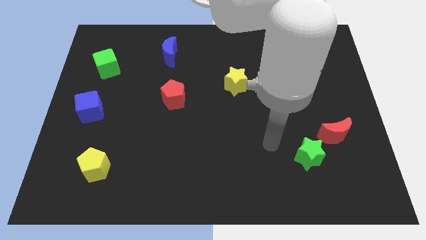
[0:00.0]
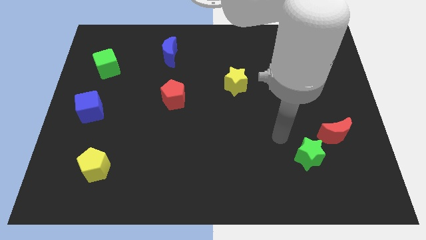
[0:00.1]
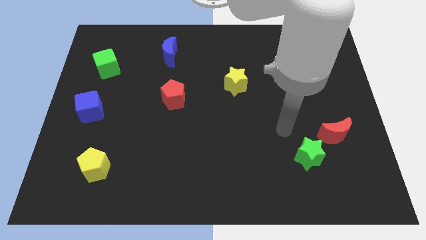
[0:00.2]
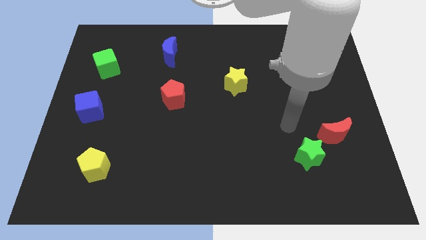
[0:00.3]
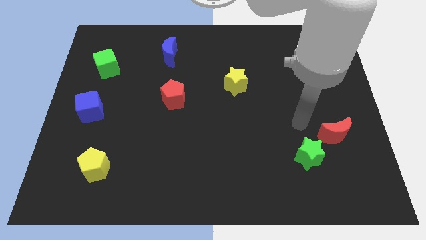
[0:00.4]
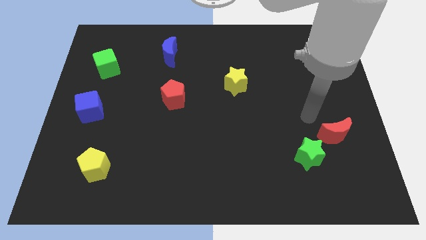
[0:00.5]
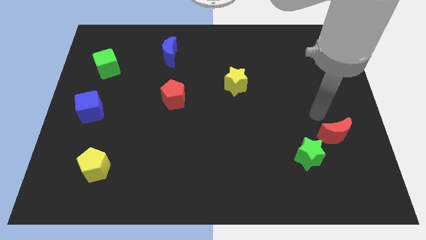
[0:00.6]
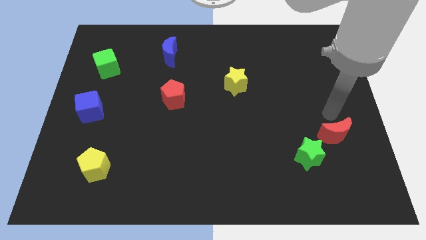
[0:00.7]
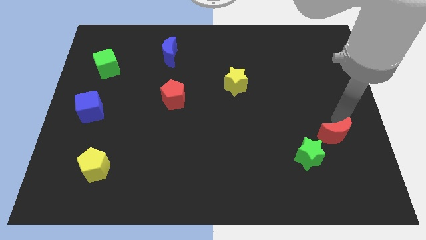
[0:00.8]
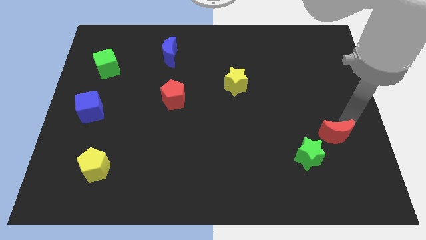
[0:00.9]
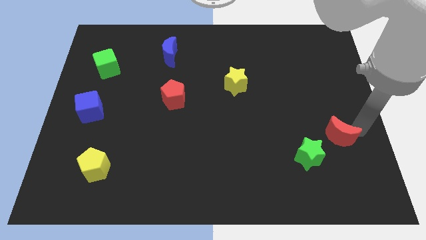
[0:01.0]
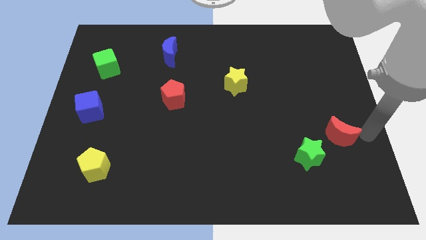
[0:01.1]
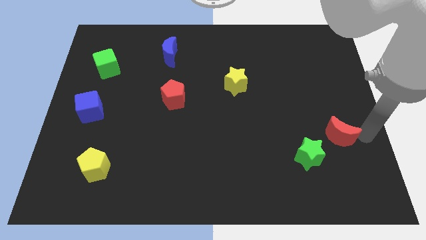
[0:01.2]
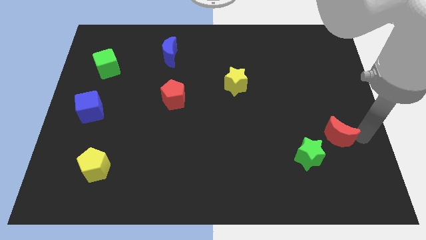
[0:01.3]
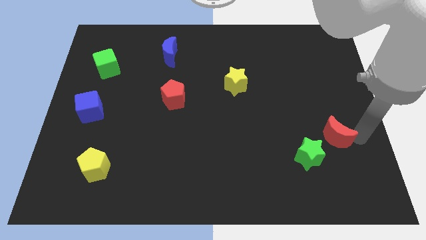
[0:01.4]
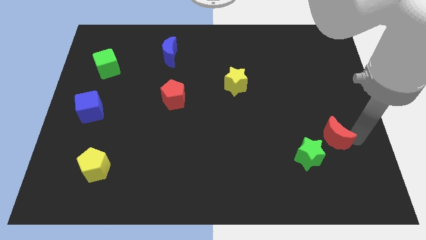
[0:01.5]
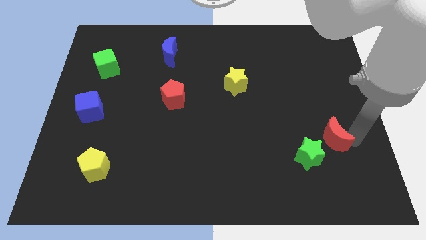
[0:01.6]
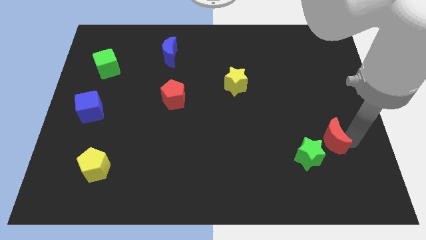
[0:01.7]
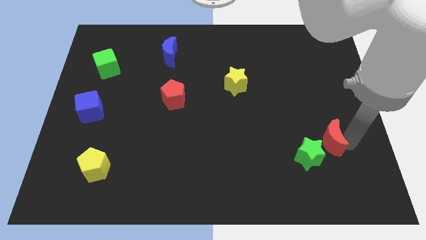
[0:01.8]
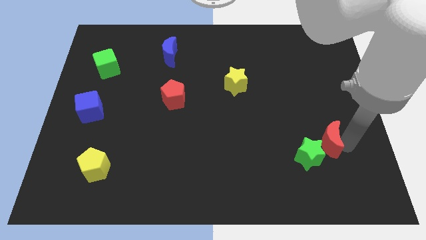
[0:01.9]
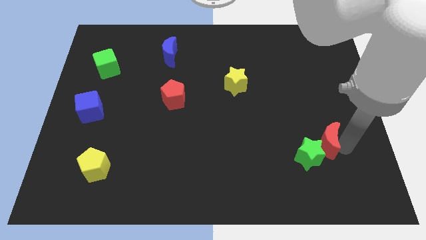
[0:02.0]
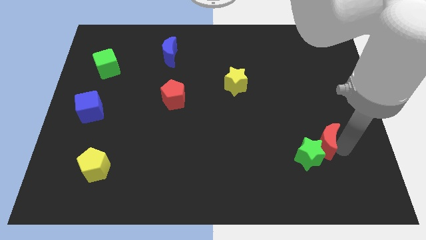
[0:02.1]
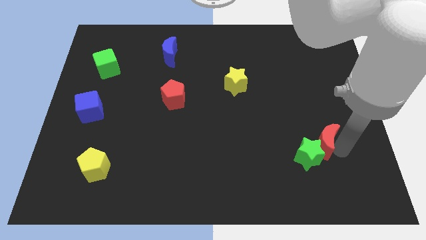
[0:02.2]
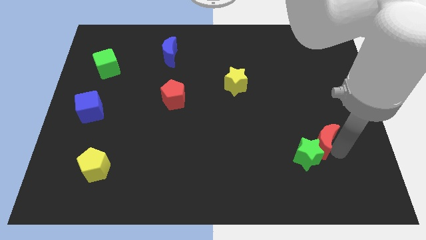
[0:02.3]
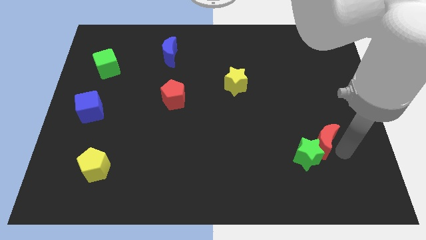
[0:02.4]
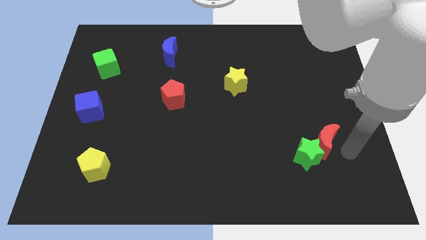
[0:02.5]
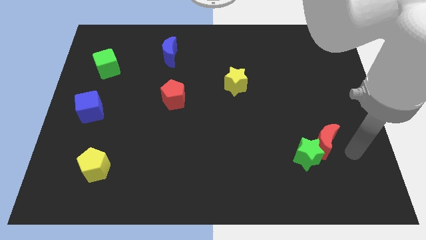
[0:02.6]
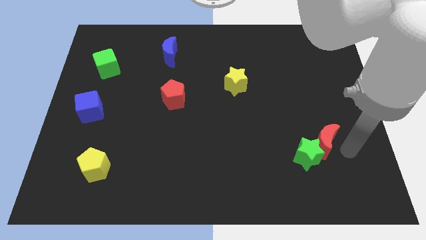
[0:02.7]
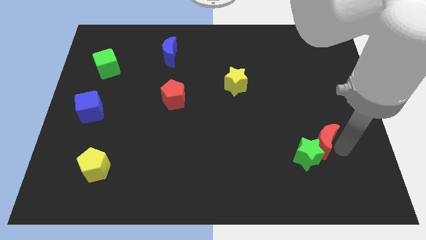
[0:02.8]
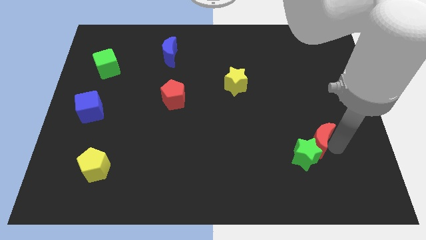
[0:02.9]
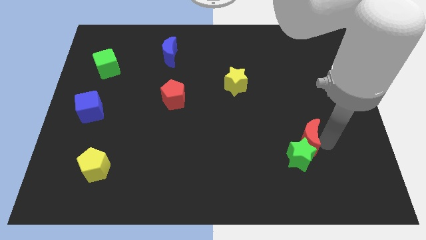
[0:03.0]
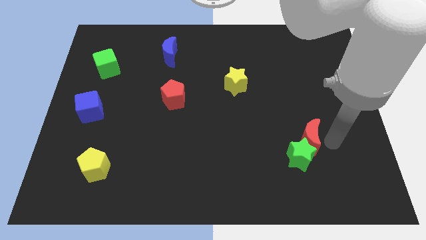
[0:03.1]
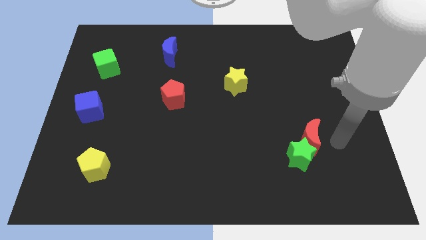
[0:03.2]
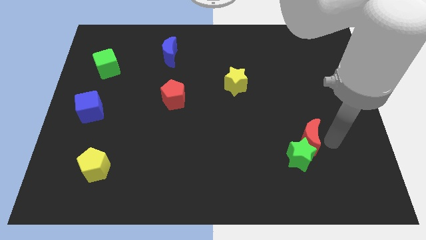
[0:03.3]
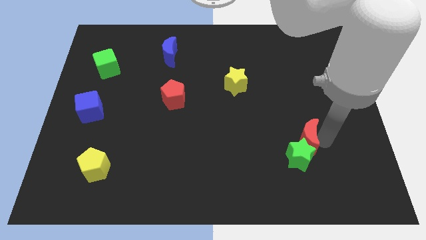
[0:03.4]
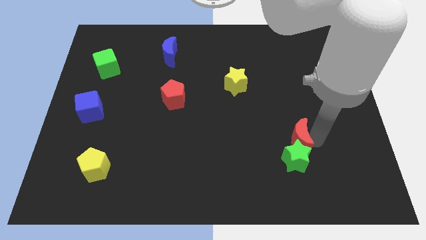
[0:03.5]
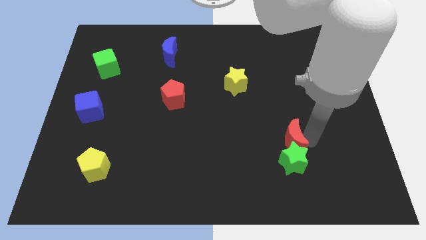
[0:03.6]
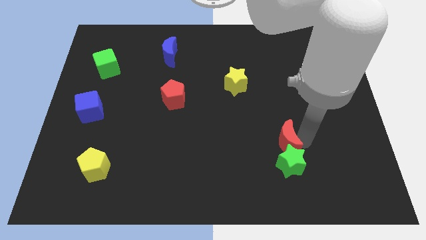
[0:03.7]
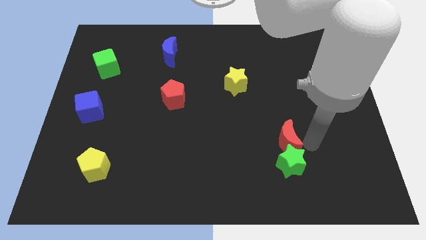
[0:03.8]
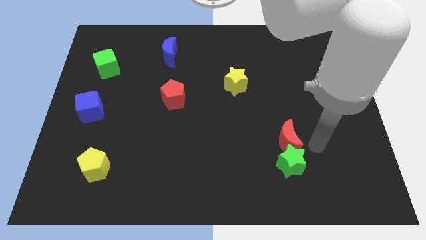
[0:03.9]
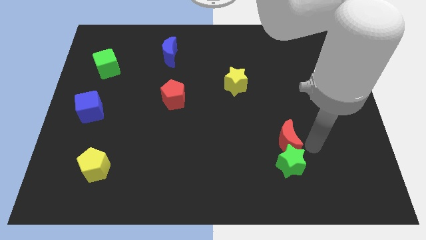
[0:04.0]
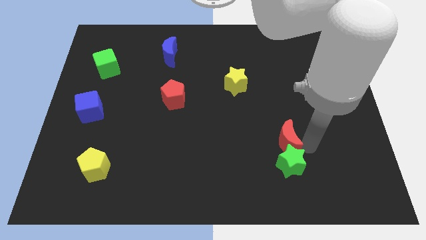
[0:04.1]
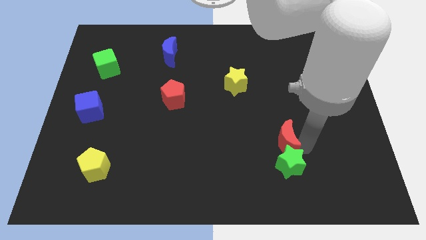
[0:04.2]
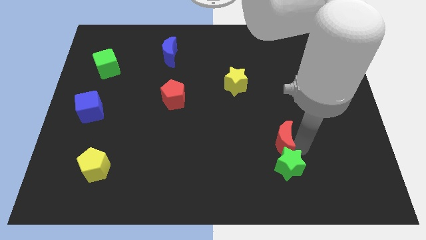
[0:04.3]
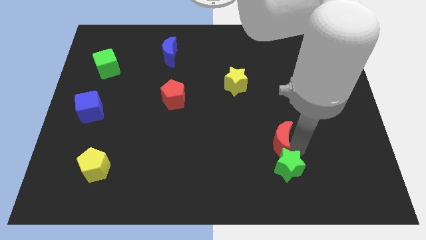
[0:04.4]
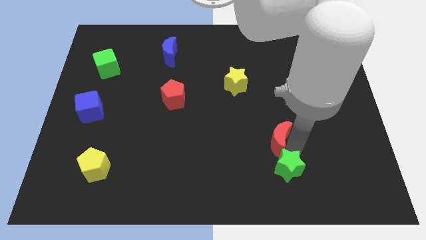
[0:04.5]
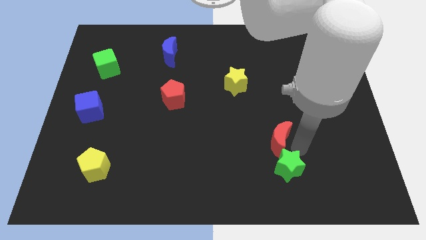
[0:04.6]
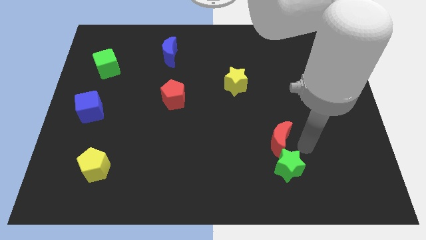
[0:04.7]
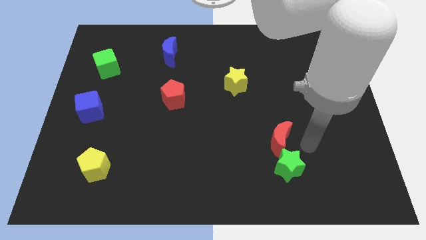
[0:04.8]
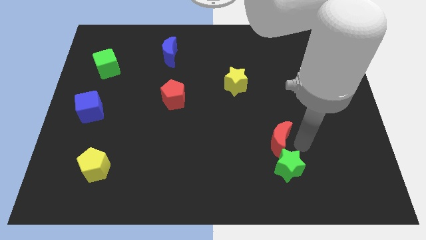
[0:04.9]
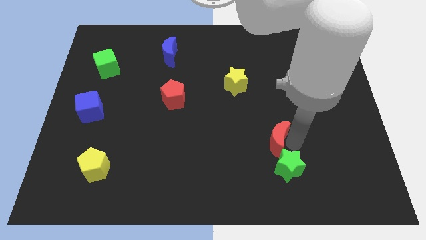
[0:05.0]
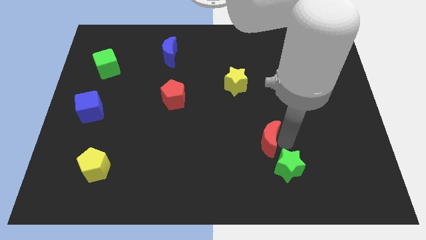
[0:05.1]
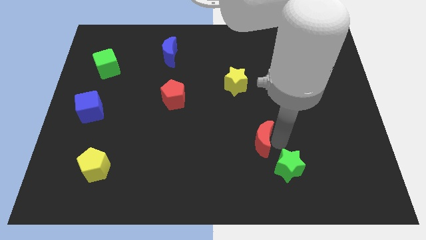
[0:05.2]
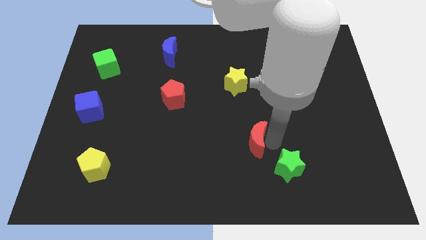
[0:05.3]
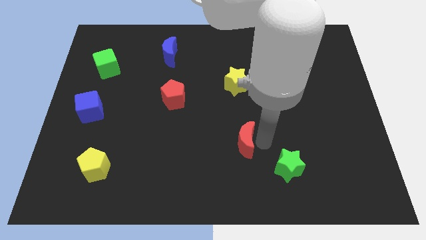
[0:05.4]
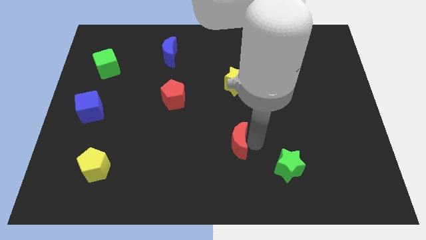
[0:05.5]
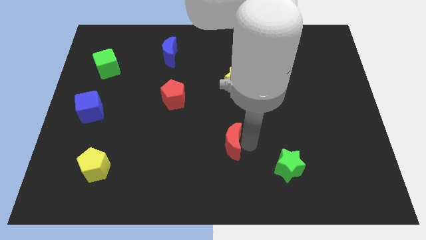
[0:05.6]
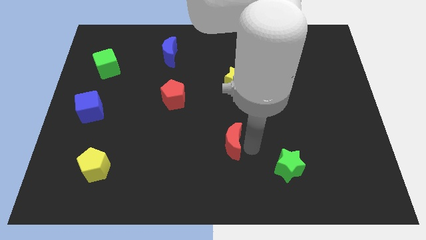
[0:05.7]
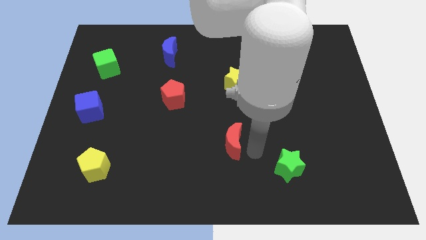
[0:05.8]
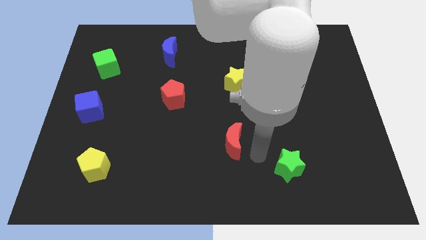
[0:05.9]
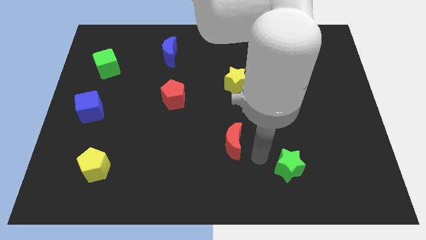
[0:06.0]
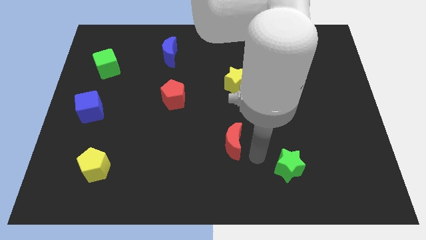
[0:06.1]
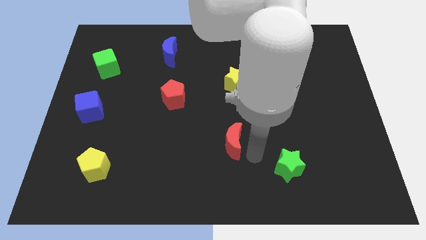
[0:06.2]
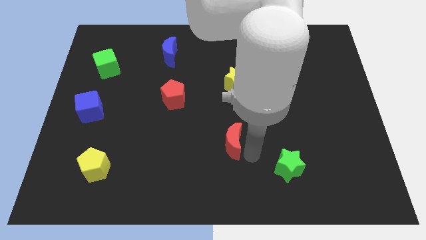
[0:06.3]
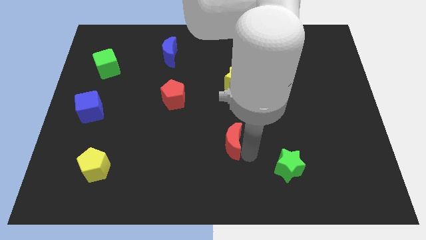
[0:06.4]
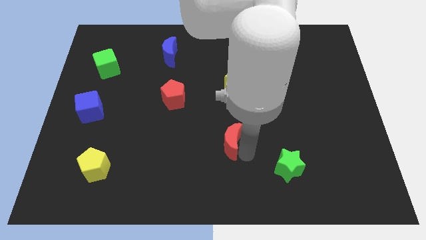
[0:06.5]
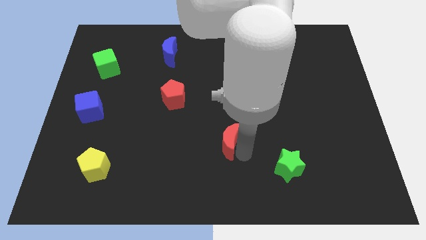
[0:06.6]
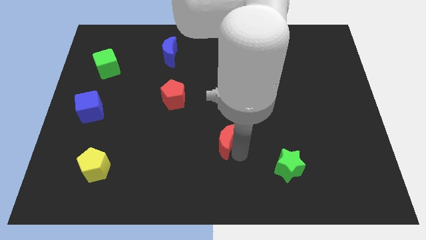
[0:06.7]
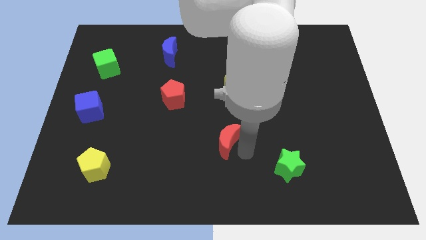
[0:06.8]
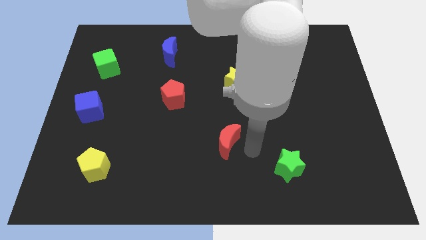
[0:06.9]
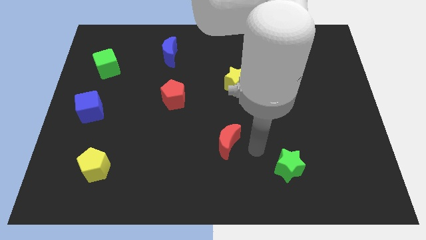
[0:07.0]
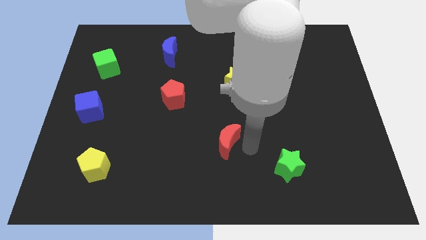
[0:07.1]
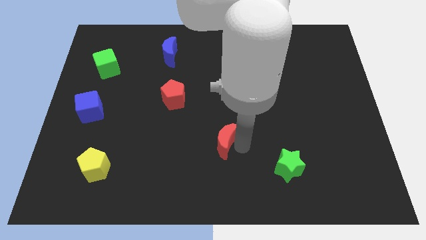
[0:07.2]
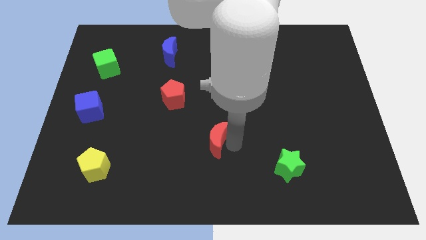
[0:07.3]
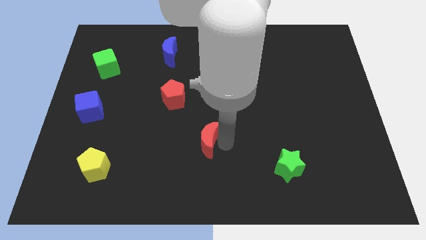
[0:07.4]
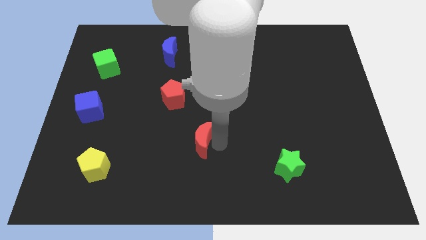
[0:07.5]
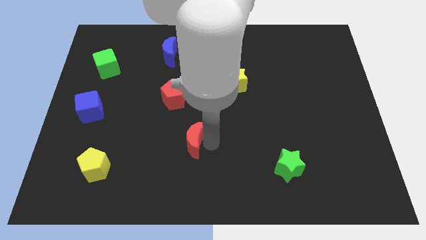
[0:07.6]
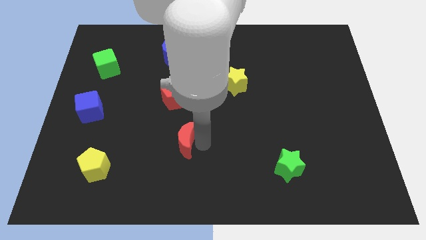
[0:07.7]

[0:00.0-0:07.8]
push the red moon below the red pentagon
